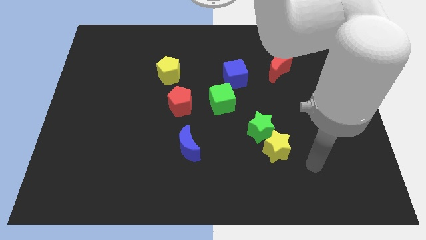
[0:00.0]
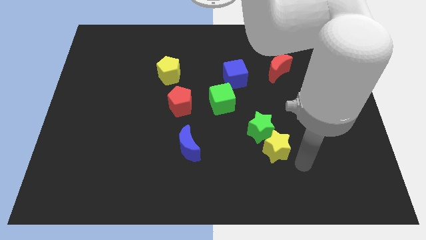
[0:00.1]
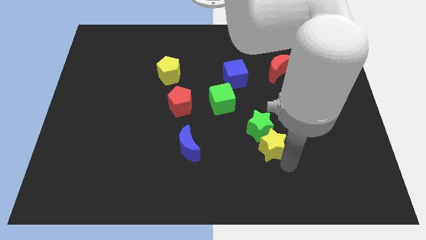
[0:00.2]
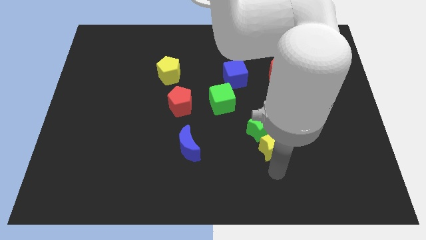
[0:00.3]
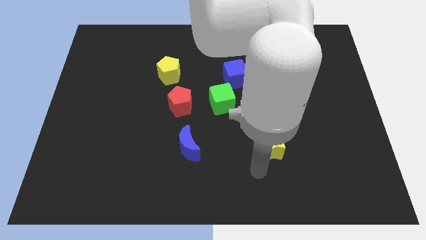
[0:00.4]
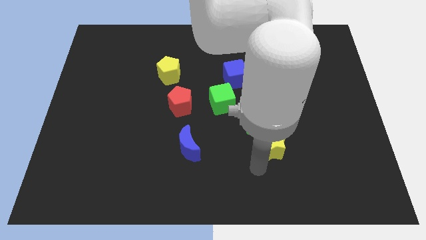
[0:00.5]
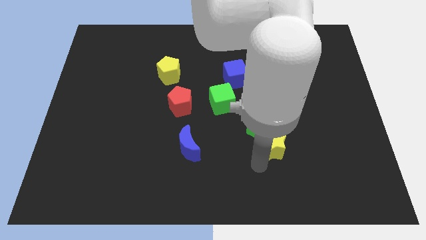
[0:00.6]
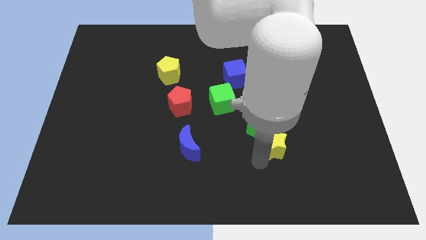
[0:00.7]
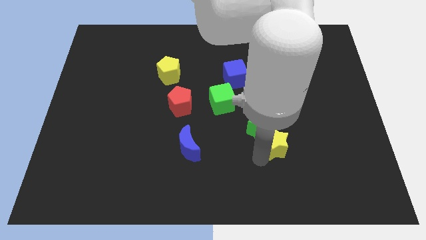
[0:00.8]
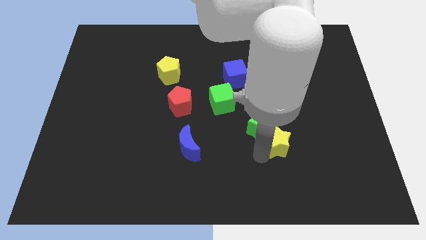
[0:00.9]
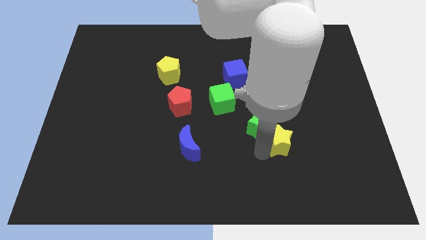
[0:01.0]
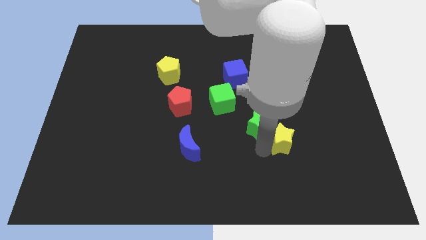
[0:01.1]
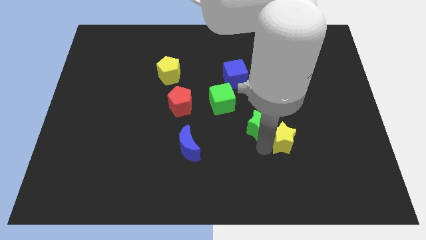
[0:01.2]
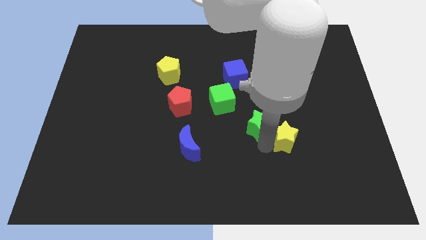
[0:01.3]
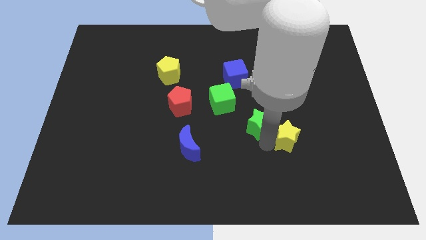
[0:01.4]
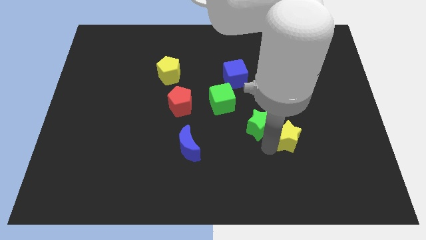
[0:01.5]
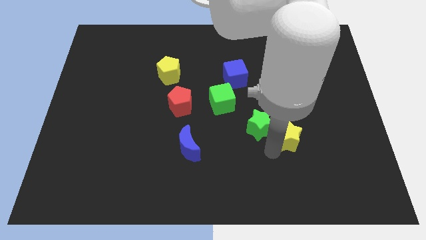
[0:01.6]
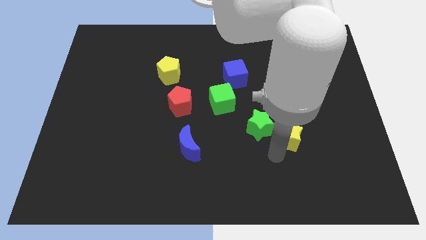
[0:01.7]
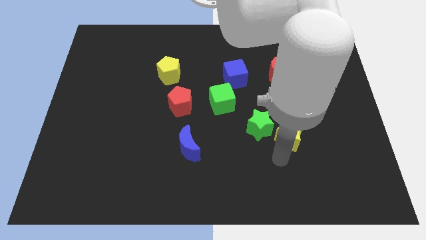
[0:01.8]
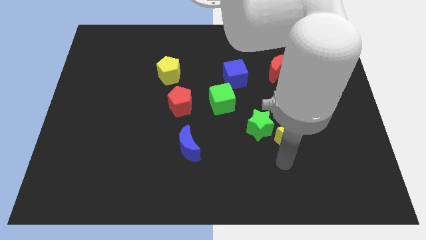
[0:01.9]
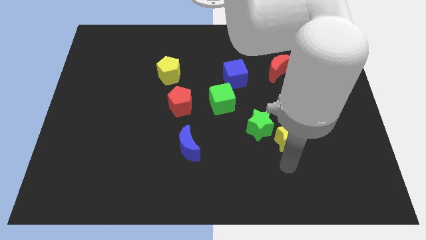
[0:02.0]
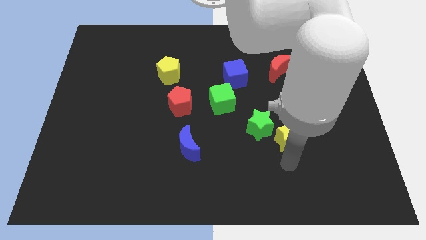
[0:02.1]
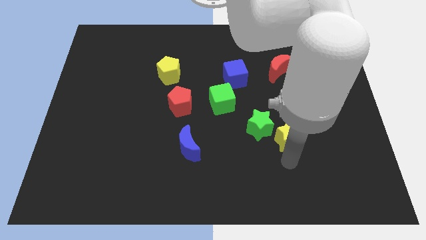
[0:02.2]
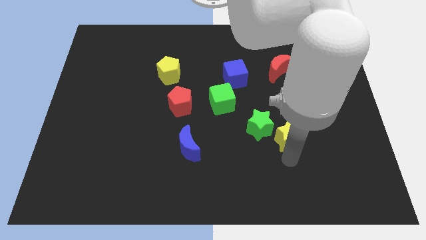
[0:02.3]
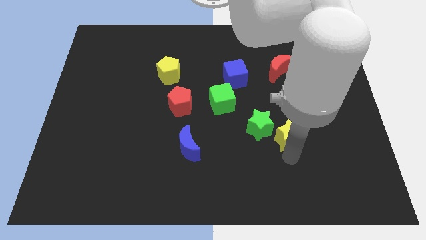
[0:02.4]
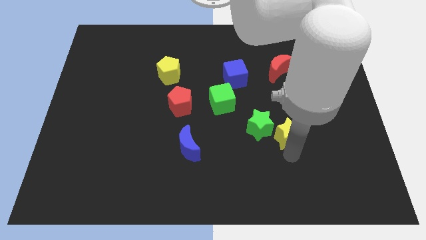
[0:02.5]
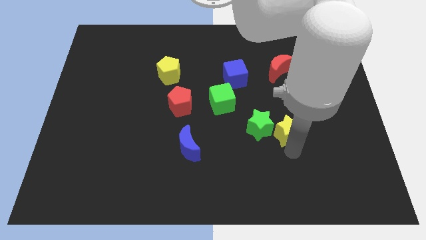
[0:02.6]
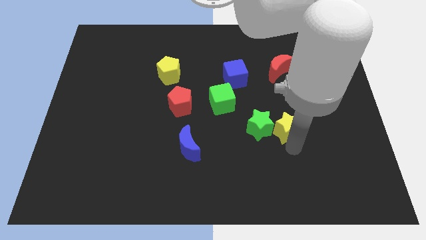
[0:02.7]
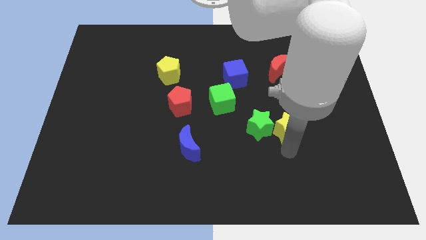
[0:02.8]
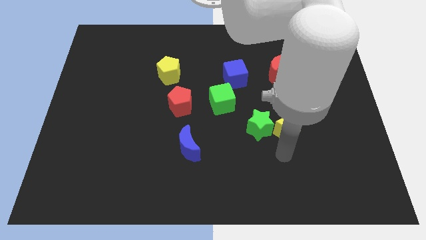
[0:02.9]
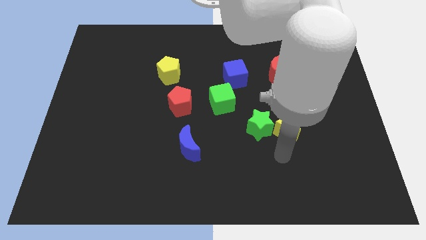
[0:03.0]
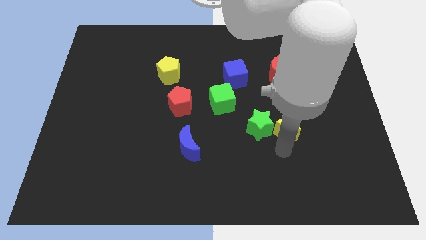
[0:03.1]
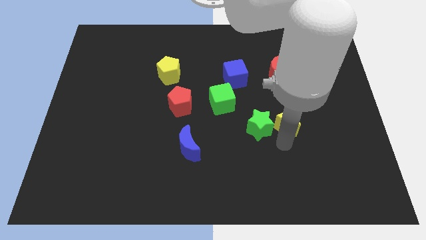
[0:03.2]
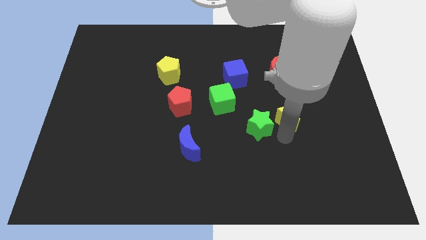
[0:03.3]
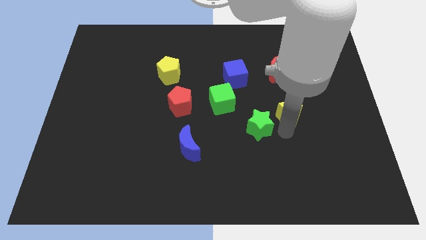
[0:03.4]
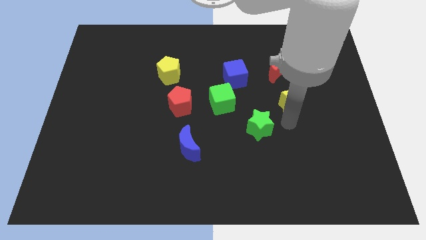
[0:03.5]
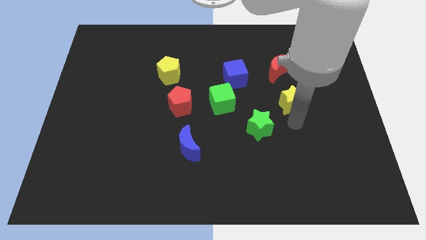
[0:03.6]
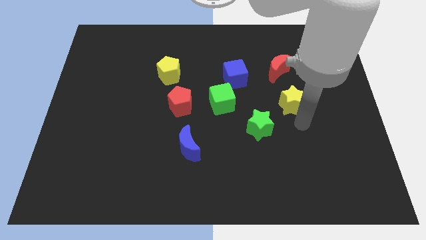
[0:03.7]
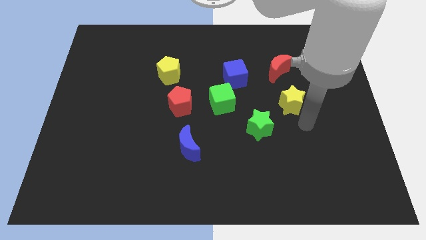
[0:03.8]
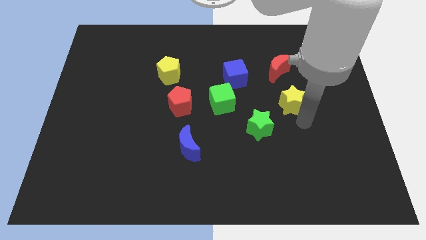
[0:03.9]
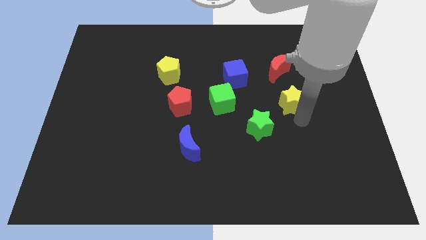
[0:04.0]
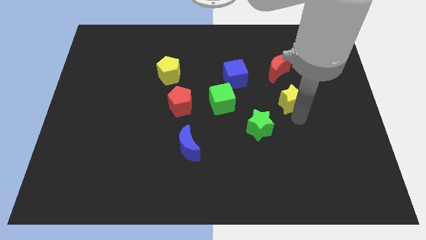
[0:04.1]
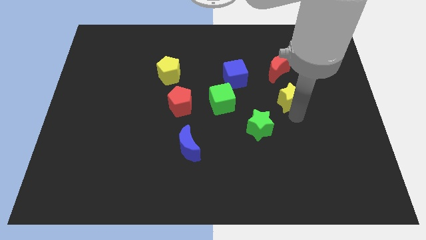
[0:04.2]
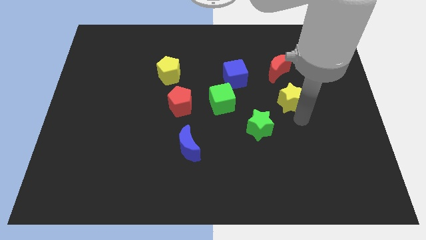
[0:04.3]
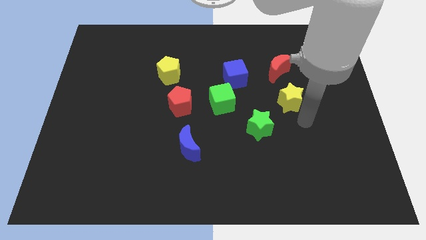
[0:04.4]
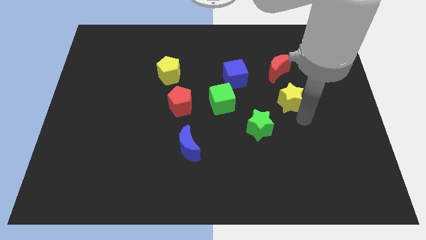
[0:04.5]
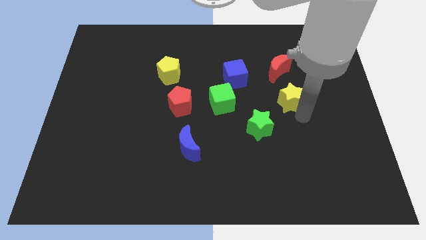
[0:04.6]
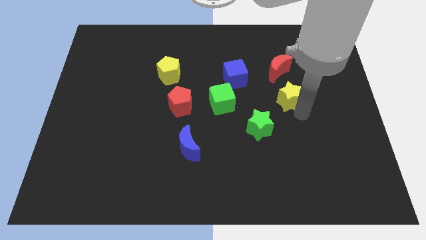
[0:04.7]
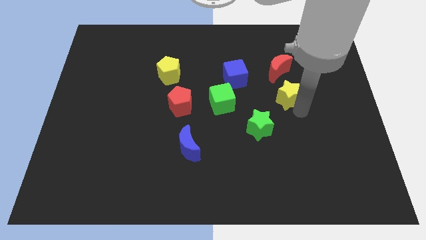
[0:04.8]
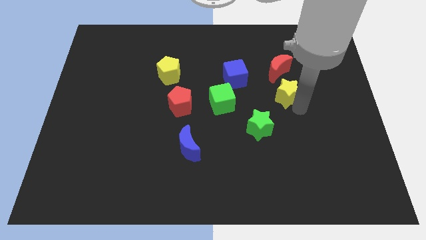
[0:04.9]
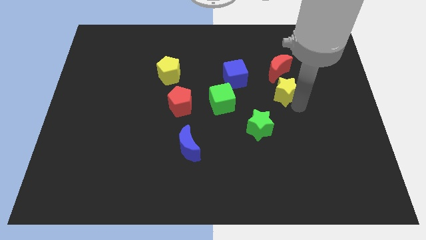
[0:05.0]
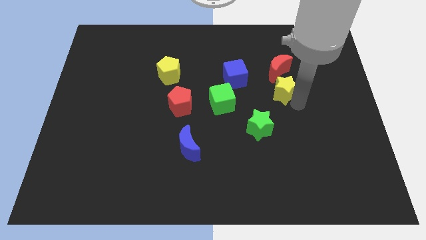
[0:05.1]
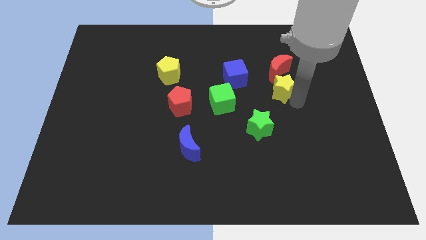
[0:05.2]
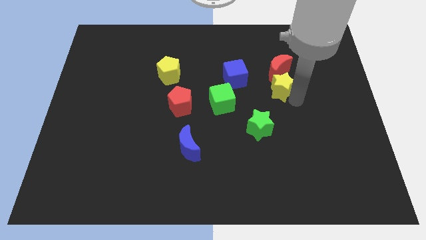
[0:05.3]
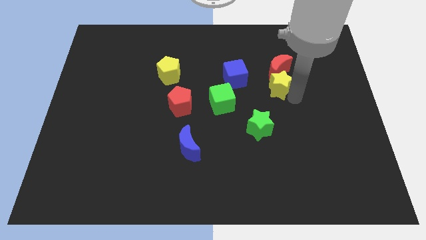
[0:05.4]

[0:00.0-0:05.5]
push the yellow star next to the red moon

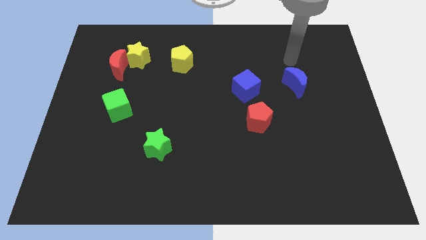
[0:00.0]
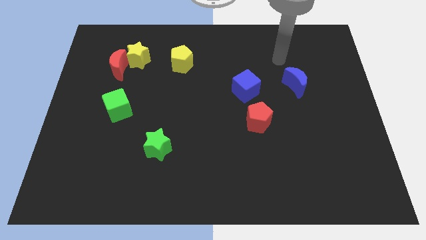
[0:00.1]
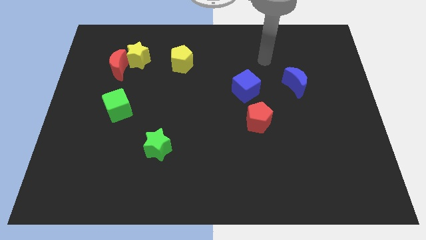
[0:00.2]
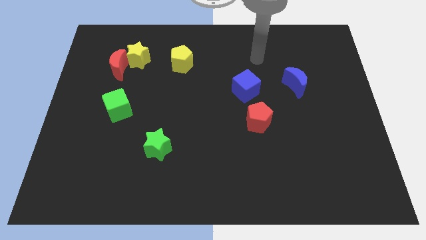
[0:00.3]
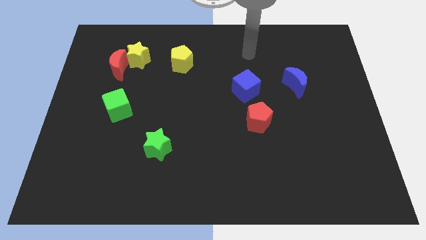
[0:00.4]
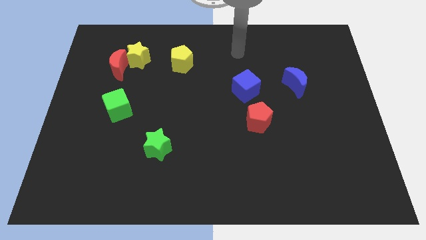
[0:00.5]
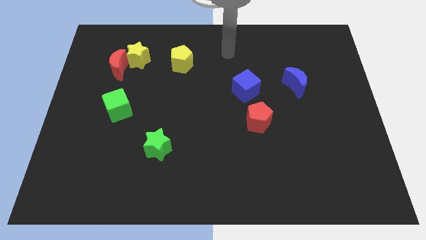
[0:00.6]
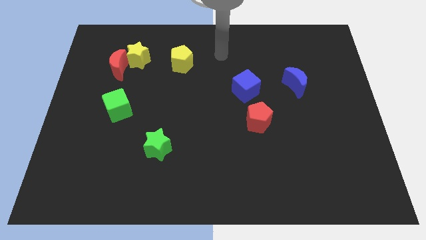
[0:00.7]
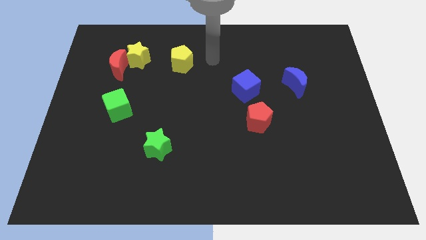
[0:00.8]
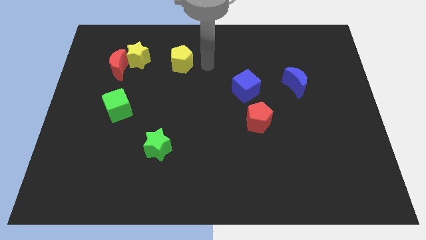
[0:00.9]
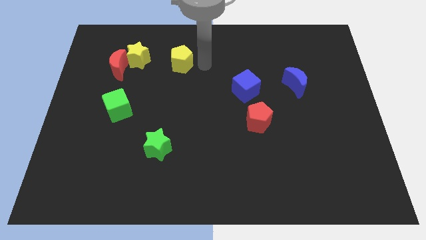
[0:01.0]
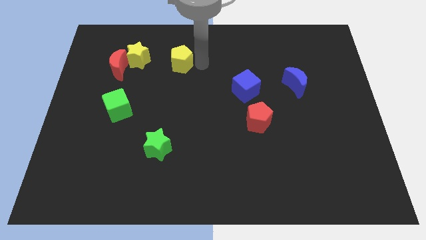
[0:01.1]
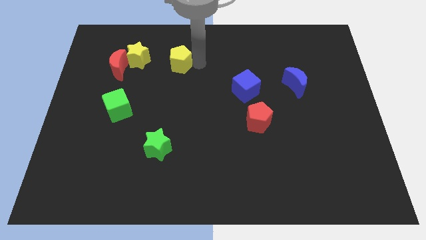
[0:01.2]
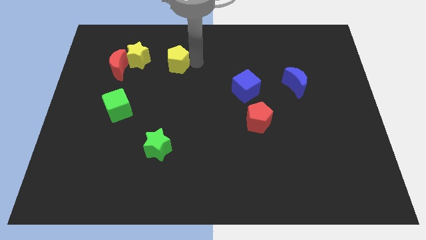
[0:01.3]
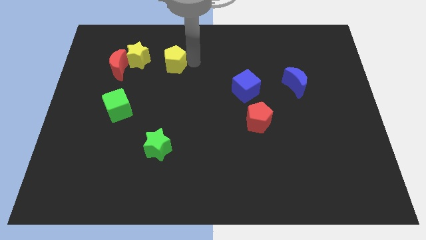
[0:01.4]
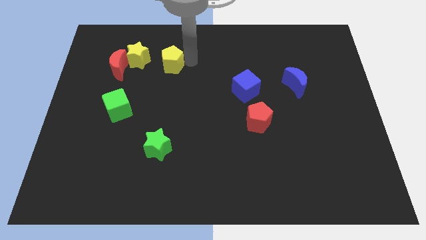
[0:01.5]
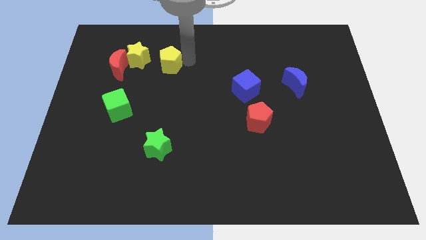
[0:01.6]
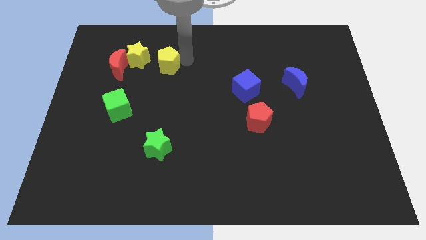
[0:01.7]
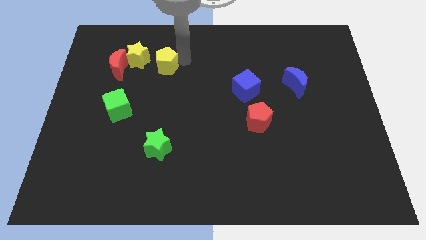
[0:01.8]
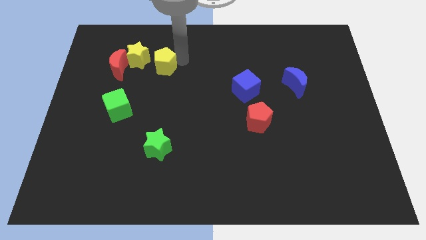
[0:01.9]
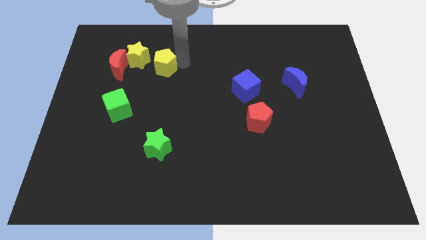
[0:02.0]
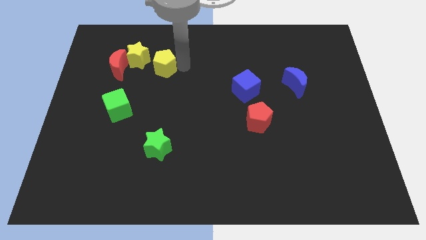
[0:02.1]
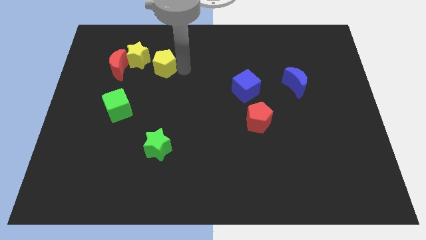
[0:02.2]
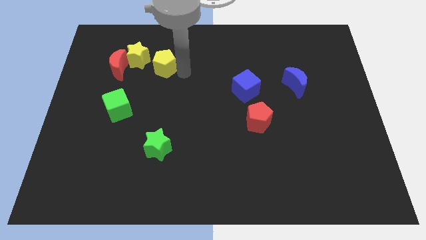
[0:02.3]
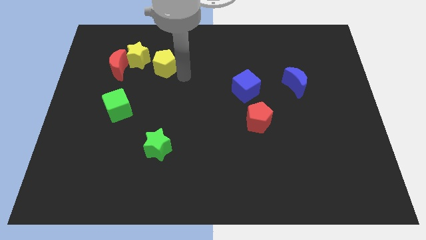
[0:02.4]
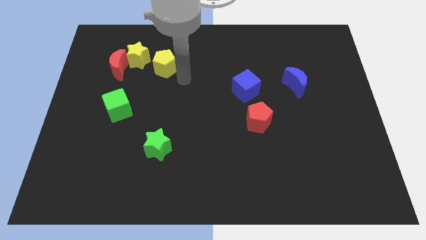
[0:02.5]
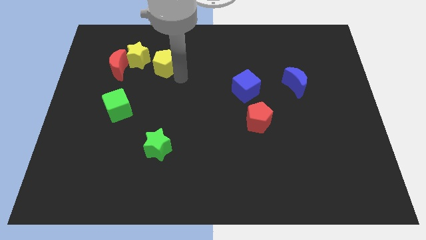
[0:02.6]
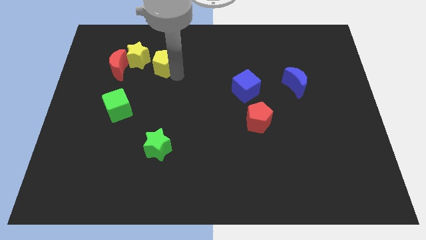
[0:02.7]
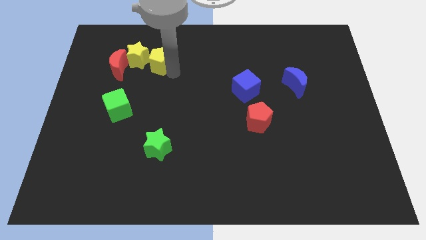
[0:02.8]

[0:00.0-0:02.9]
push the yellow pentagon towards the yellow star
